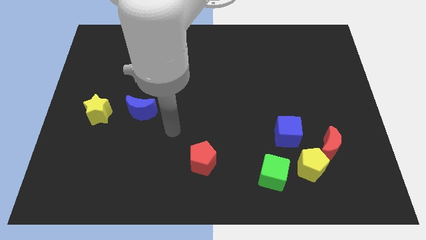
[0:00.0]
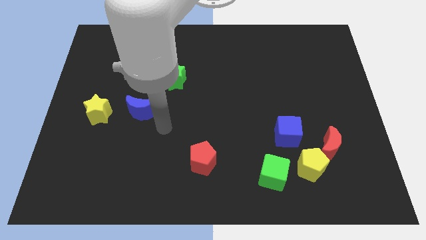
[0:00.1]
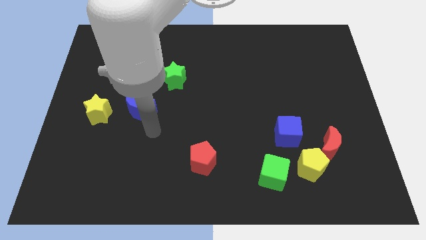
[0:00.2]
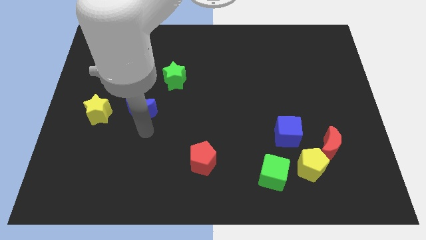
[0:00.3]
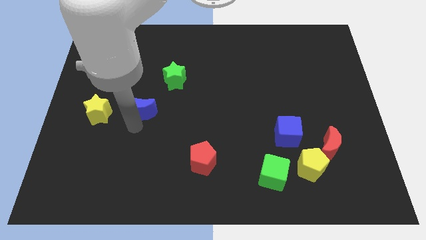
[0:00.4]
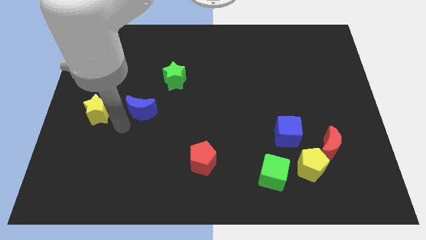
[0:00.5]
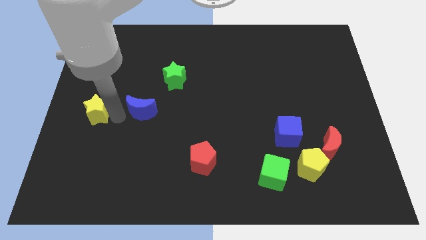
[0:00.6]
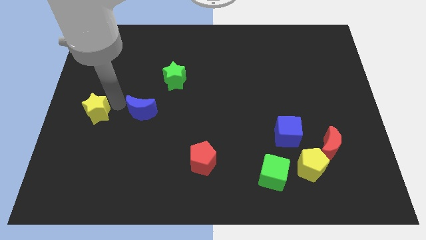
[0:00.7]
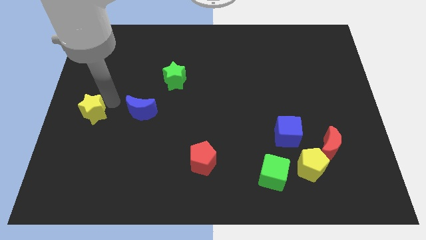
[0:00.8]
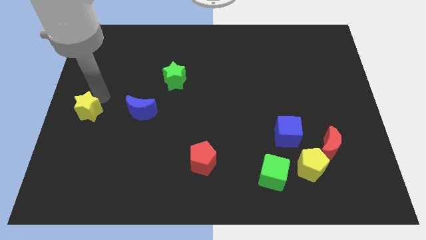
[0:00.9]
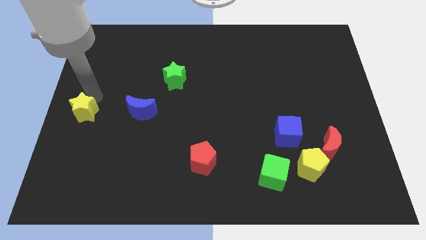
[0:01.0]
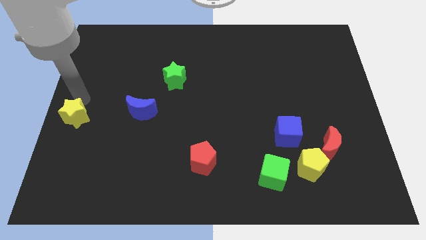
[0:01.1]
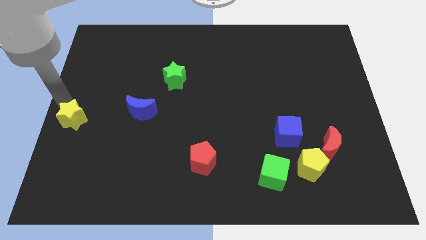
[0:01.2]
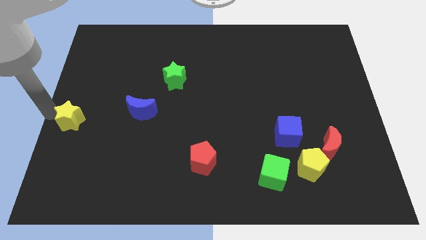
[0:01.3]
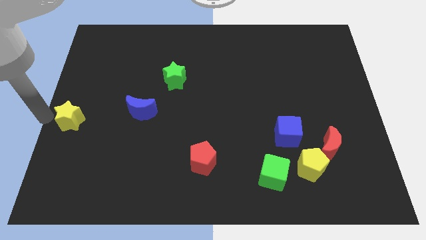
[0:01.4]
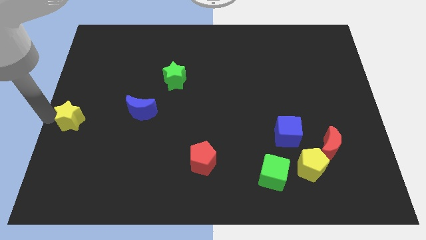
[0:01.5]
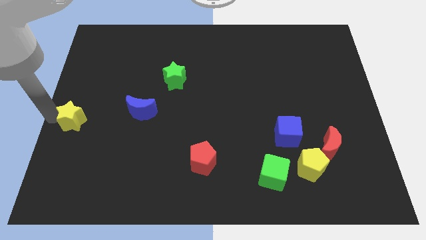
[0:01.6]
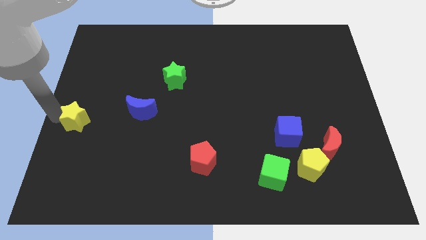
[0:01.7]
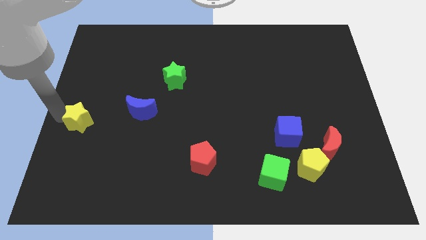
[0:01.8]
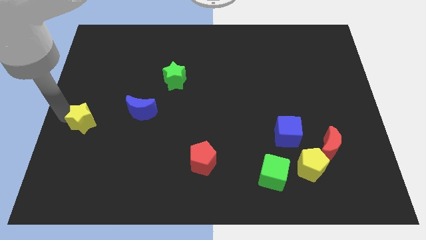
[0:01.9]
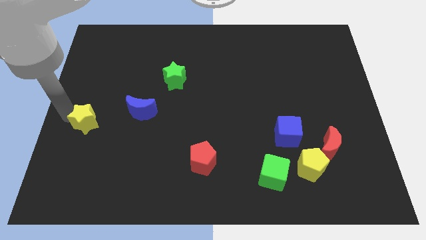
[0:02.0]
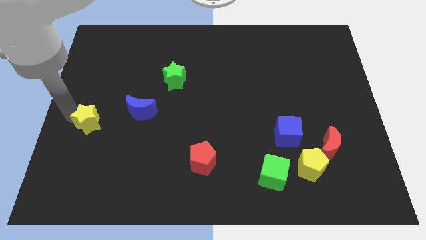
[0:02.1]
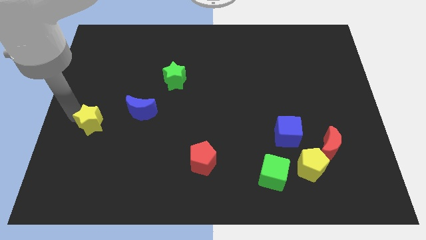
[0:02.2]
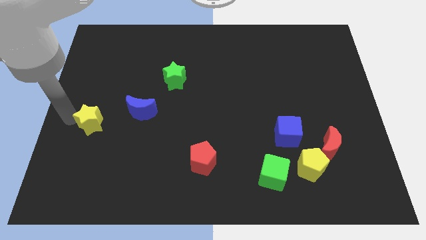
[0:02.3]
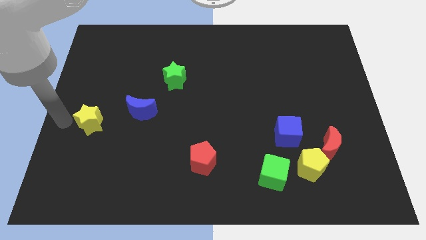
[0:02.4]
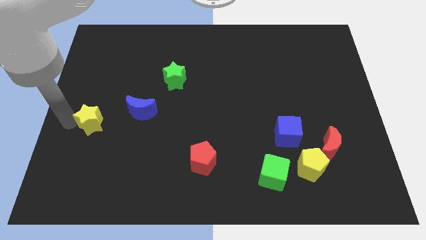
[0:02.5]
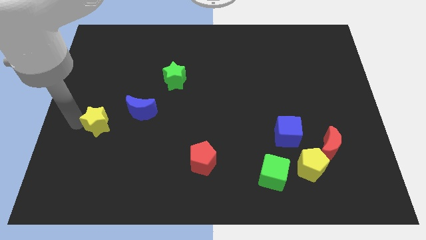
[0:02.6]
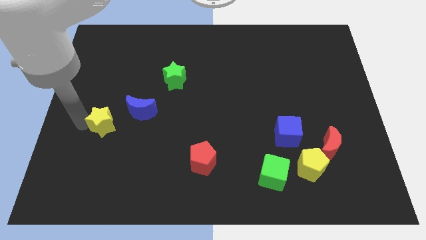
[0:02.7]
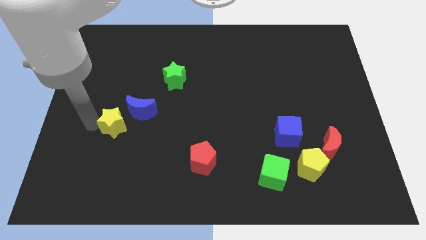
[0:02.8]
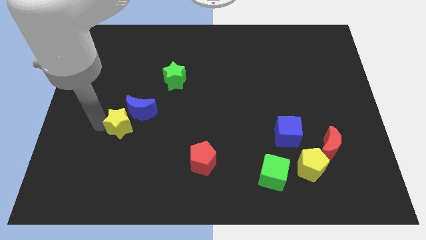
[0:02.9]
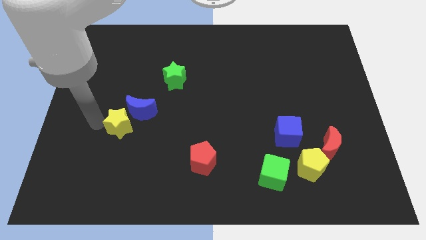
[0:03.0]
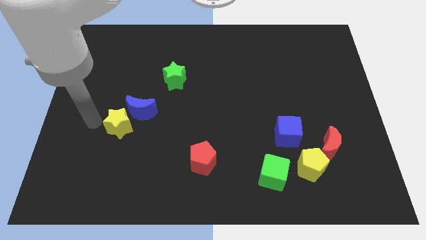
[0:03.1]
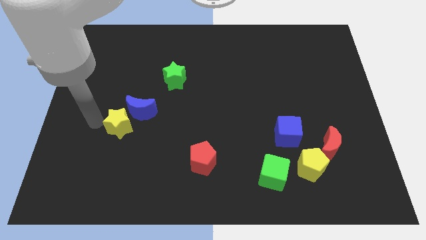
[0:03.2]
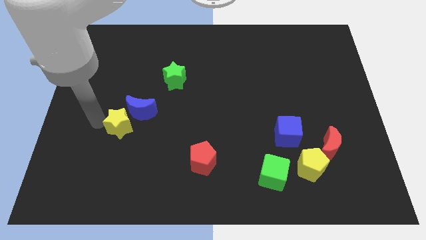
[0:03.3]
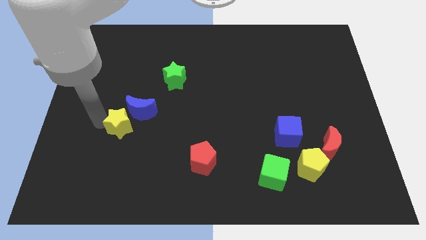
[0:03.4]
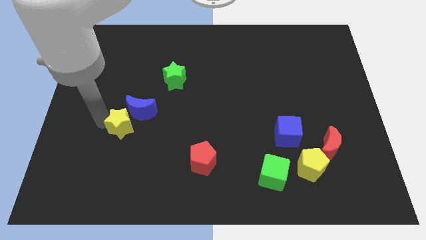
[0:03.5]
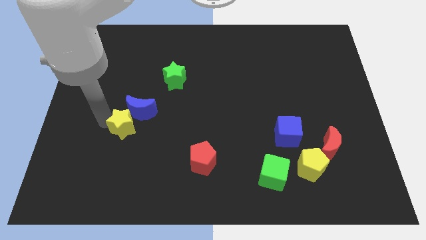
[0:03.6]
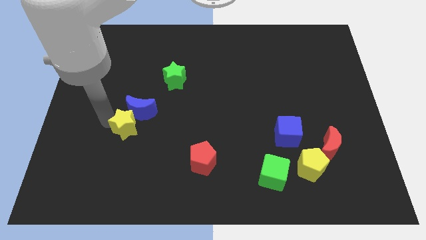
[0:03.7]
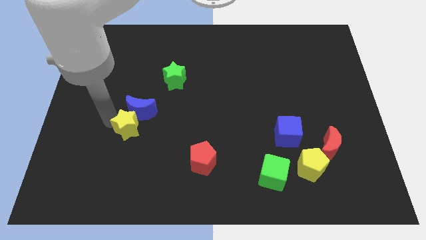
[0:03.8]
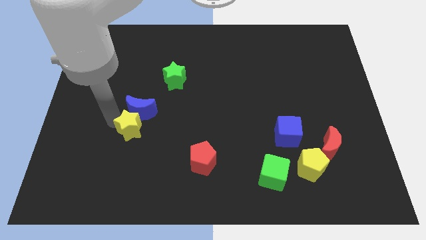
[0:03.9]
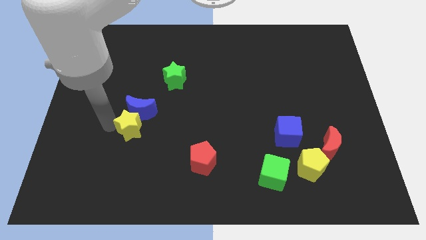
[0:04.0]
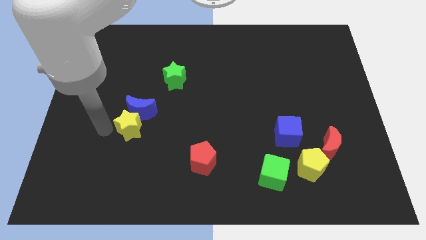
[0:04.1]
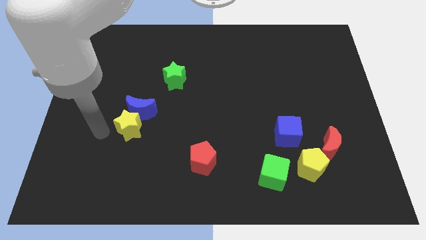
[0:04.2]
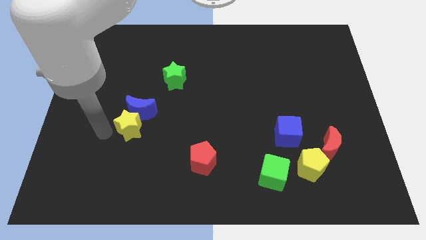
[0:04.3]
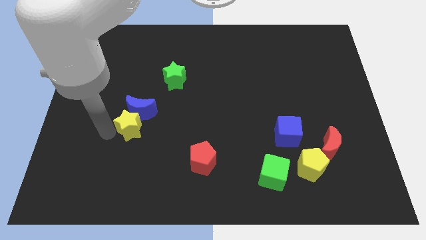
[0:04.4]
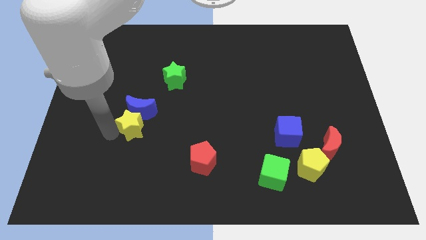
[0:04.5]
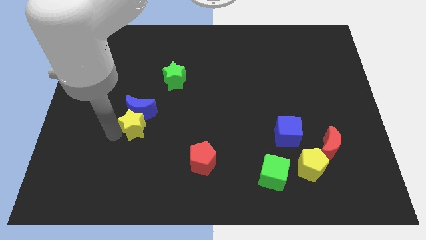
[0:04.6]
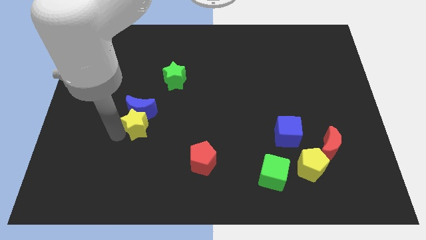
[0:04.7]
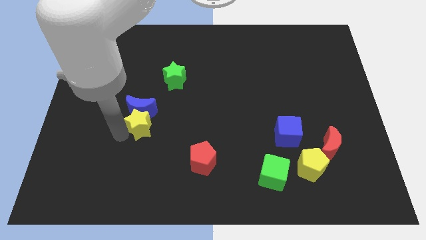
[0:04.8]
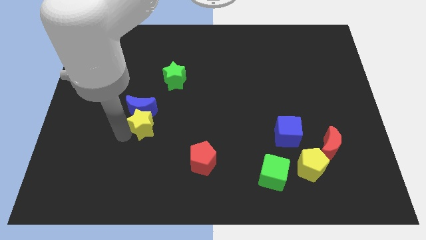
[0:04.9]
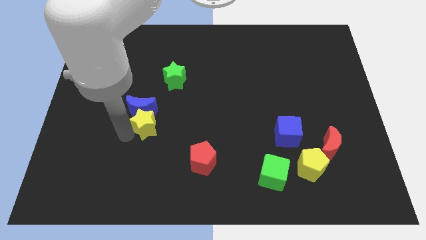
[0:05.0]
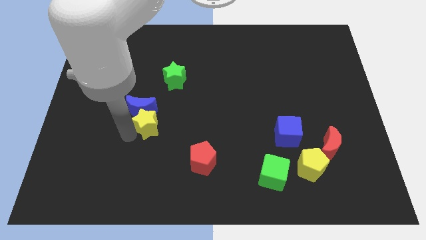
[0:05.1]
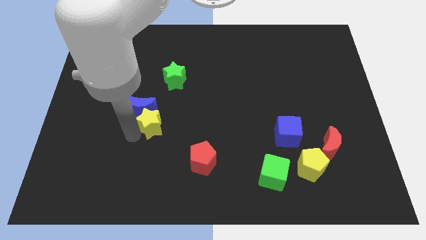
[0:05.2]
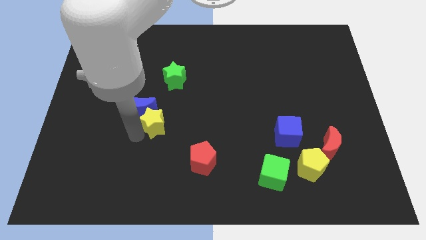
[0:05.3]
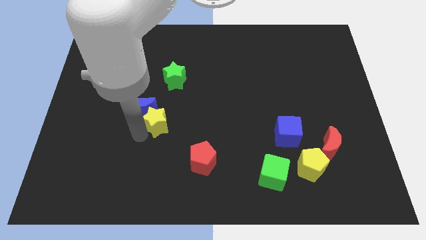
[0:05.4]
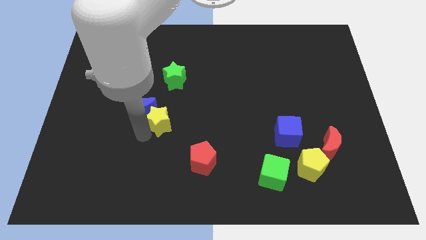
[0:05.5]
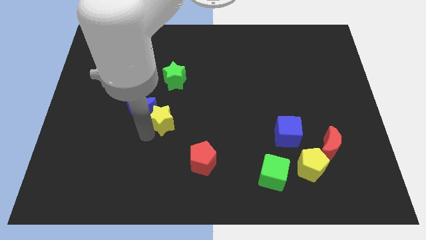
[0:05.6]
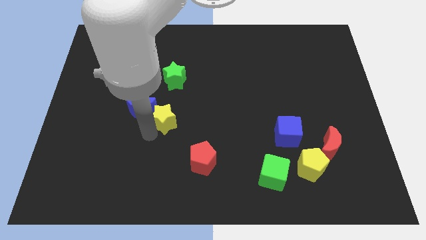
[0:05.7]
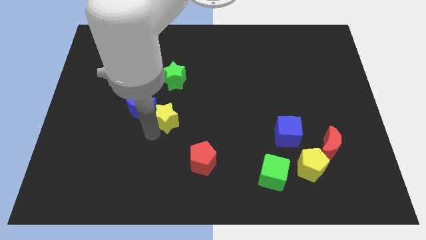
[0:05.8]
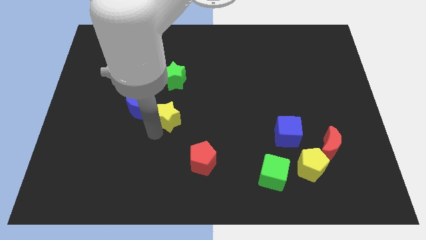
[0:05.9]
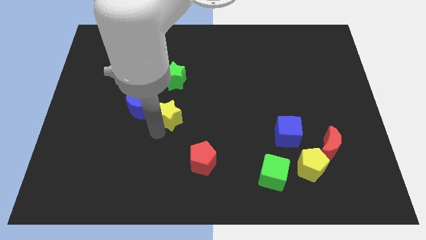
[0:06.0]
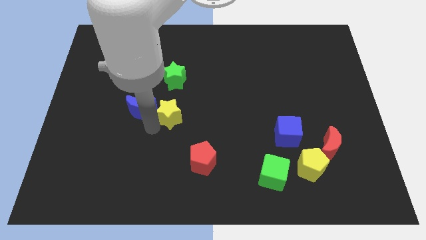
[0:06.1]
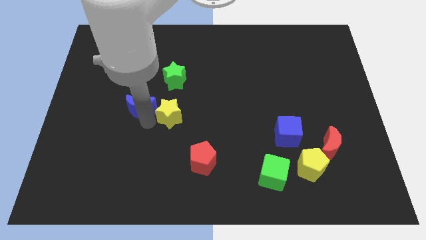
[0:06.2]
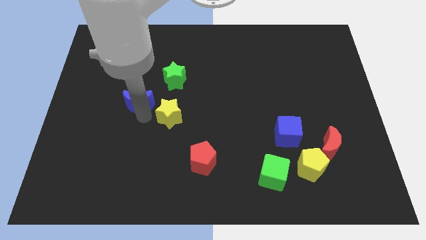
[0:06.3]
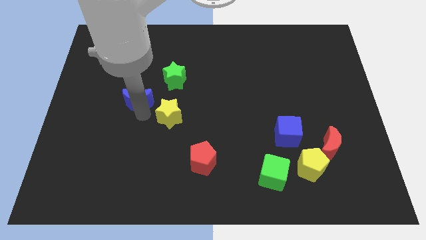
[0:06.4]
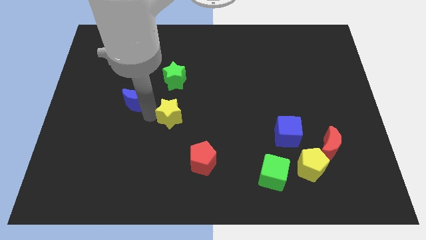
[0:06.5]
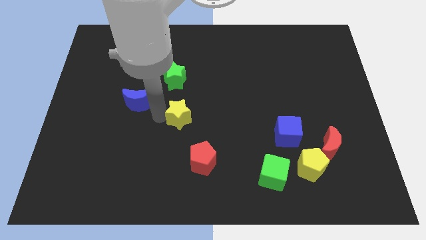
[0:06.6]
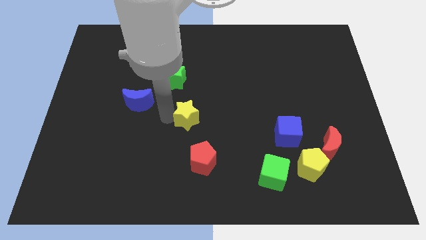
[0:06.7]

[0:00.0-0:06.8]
move the yellow star right

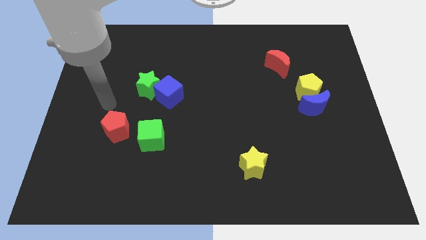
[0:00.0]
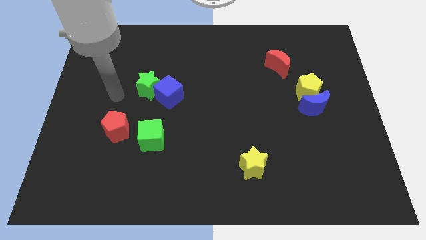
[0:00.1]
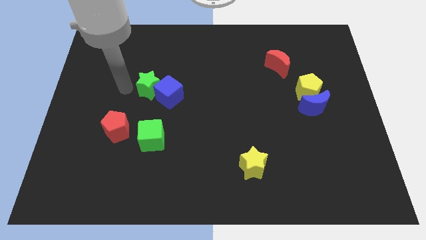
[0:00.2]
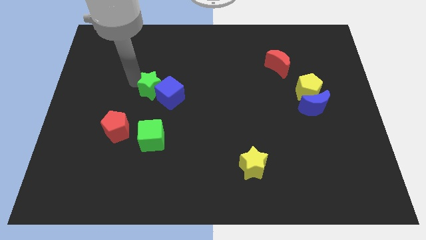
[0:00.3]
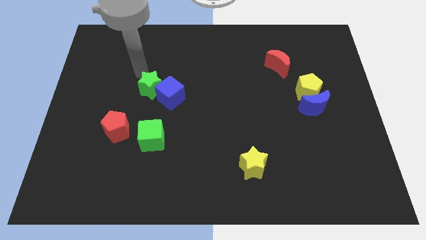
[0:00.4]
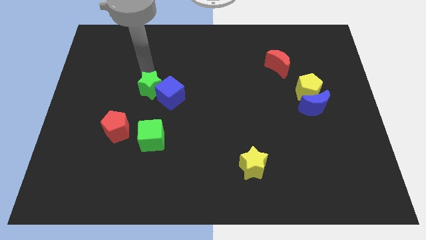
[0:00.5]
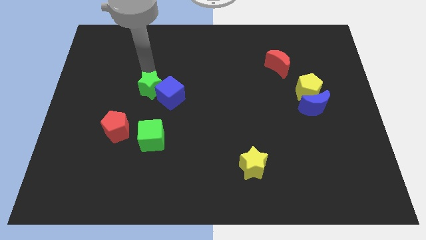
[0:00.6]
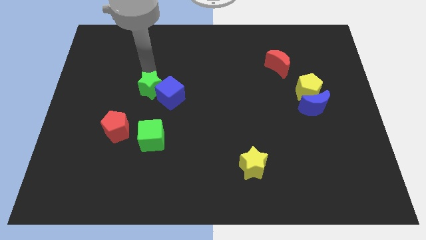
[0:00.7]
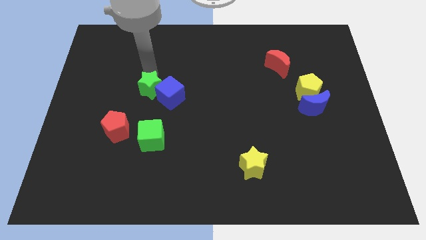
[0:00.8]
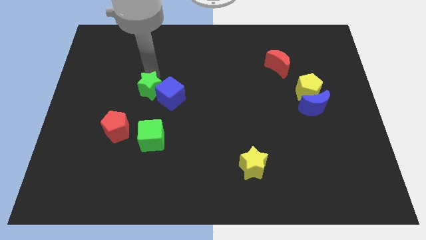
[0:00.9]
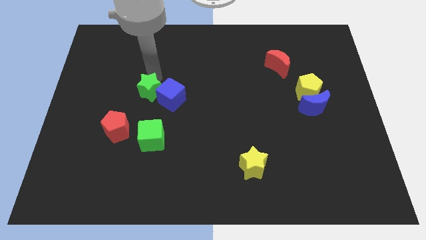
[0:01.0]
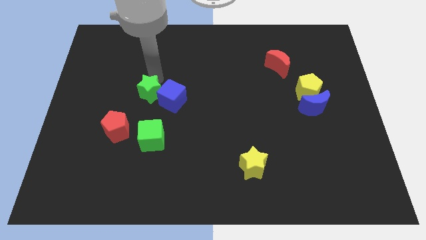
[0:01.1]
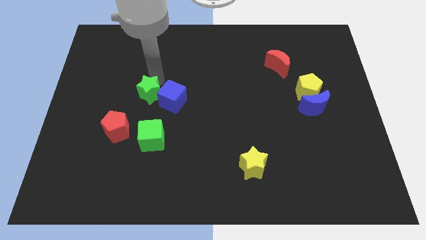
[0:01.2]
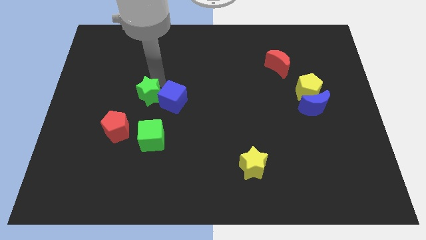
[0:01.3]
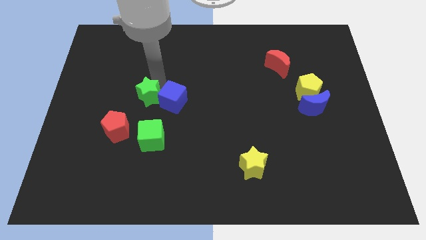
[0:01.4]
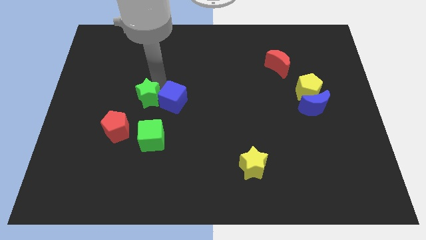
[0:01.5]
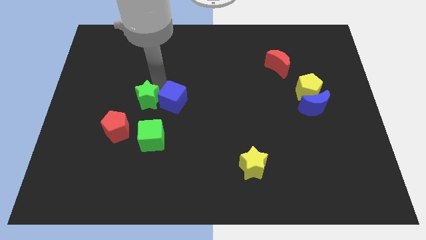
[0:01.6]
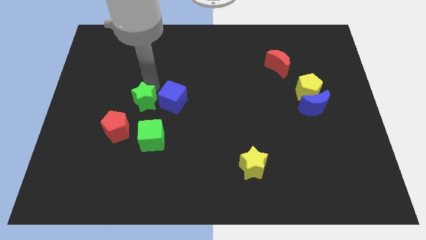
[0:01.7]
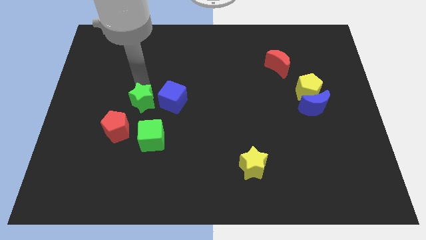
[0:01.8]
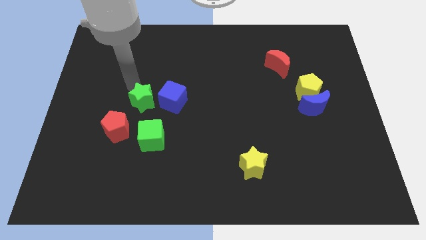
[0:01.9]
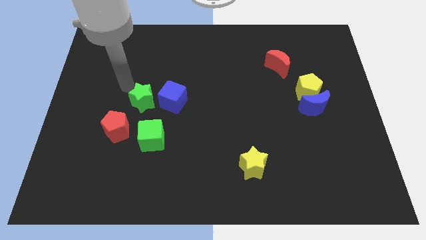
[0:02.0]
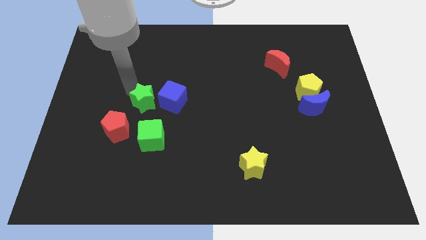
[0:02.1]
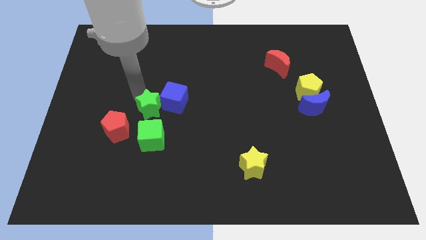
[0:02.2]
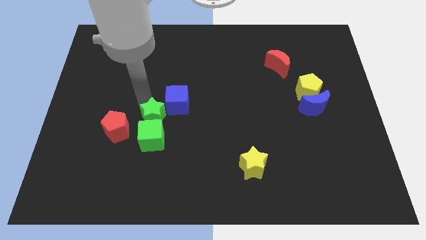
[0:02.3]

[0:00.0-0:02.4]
push the green star slightly downwards
